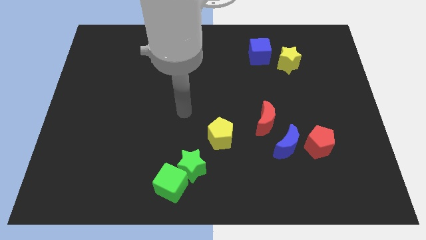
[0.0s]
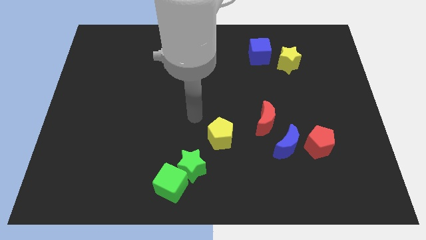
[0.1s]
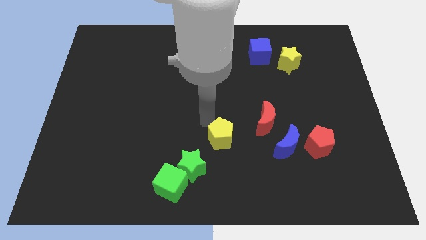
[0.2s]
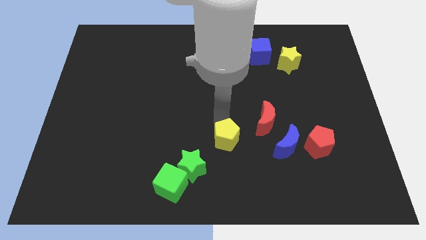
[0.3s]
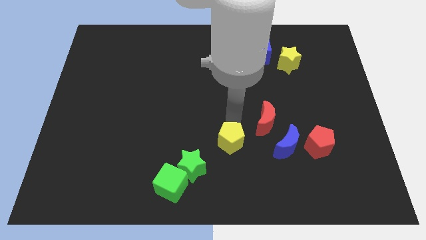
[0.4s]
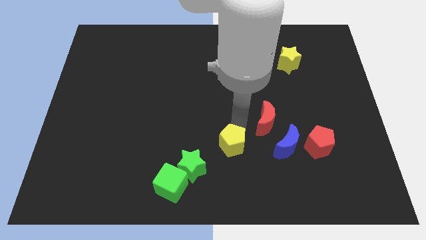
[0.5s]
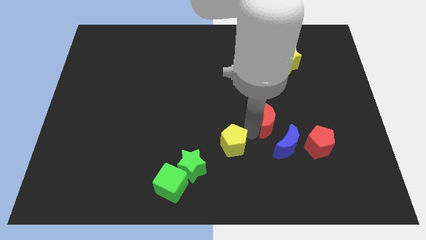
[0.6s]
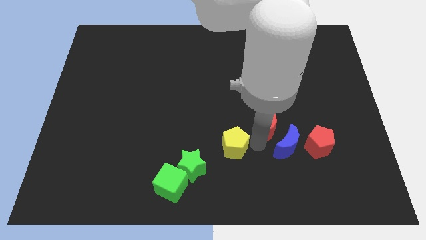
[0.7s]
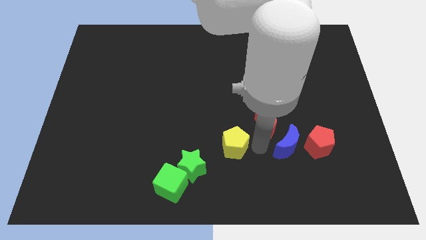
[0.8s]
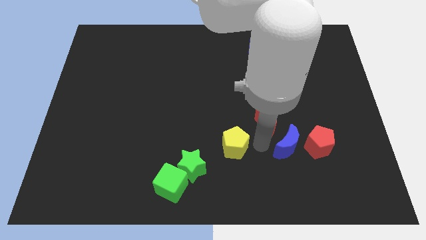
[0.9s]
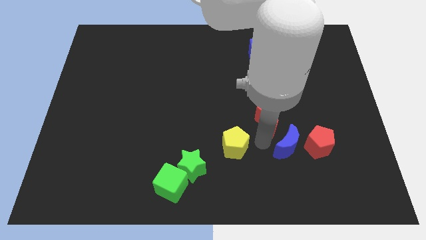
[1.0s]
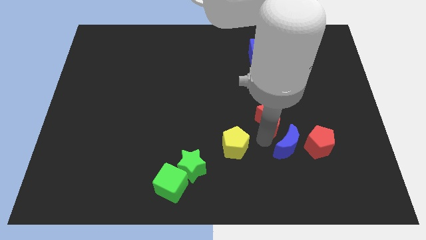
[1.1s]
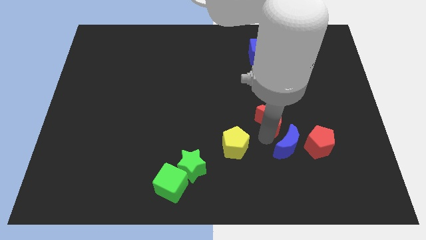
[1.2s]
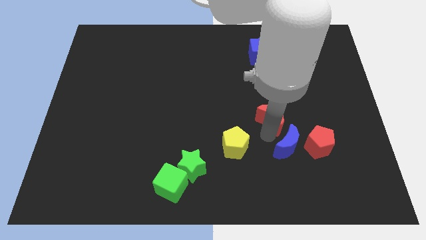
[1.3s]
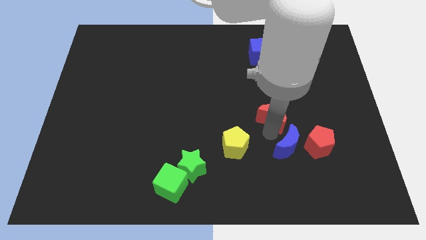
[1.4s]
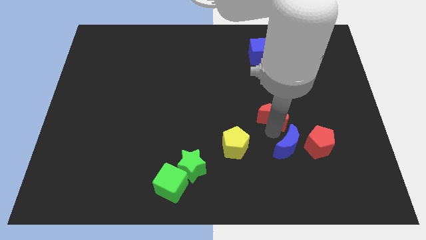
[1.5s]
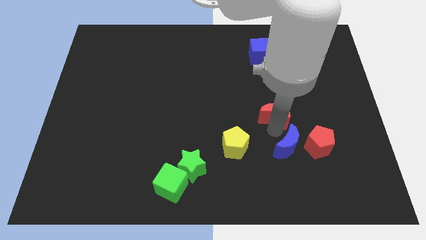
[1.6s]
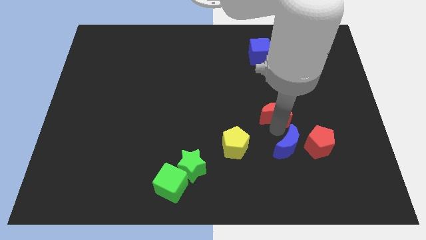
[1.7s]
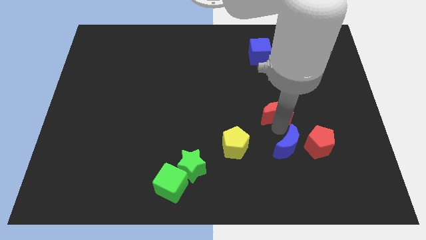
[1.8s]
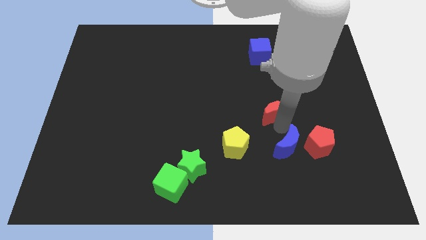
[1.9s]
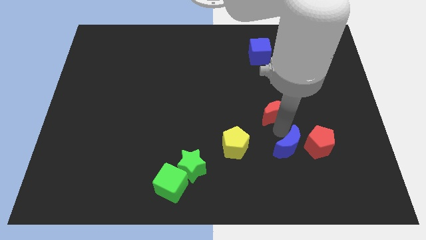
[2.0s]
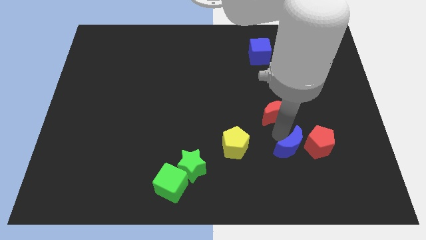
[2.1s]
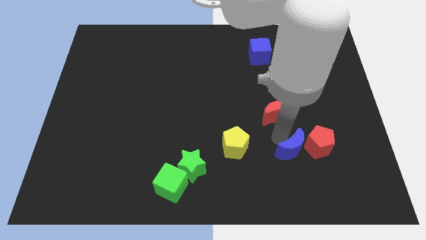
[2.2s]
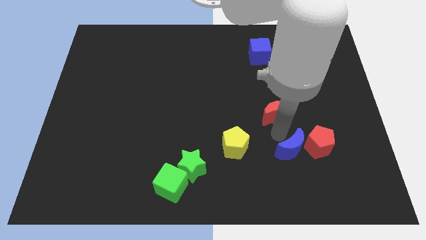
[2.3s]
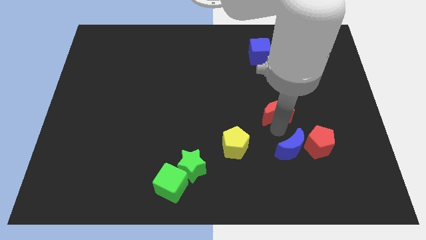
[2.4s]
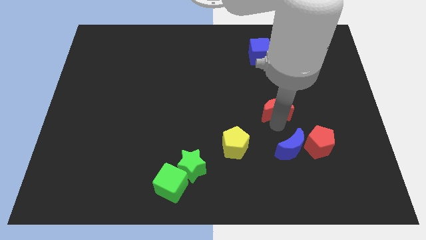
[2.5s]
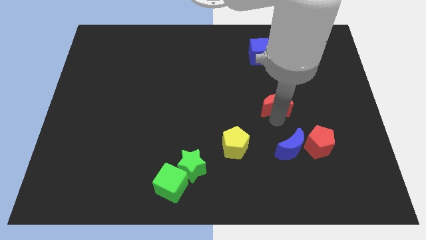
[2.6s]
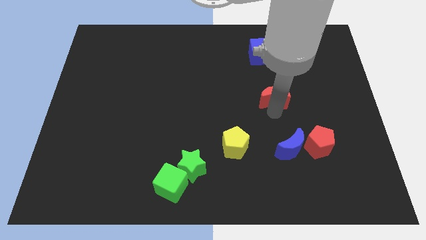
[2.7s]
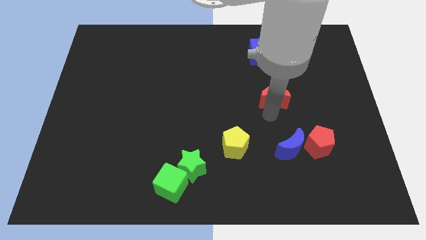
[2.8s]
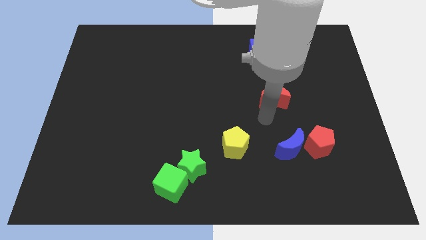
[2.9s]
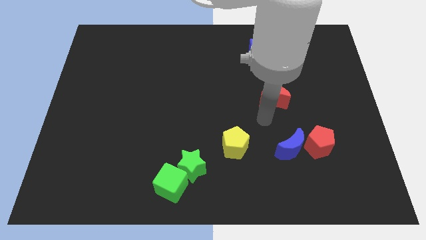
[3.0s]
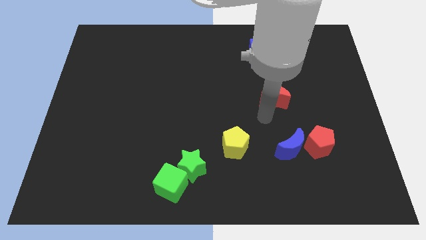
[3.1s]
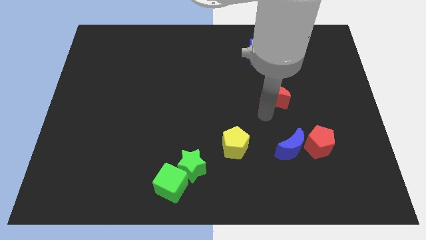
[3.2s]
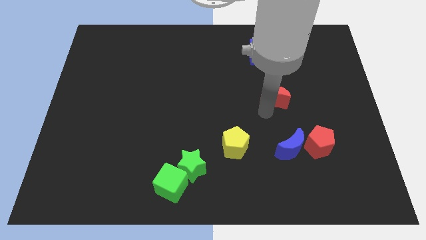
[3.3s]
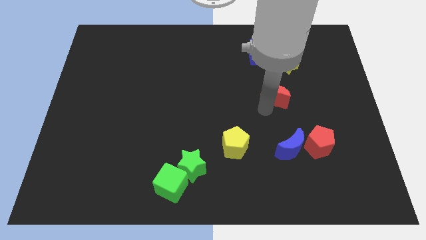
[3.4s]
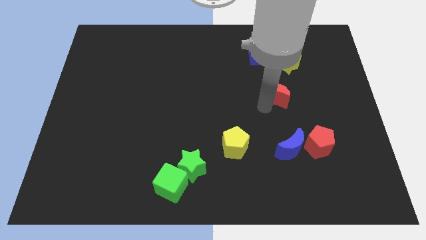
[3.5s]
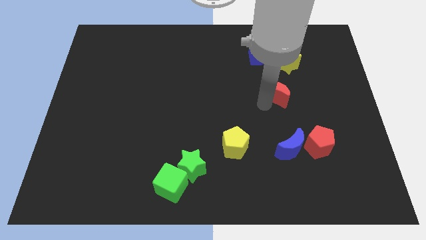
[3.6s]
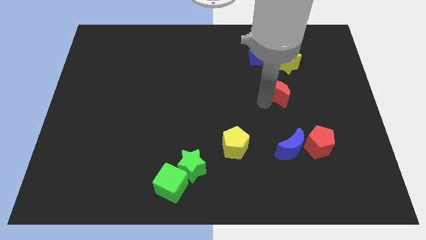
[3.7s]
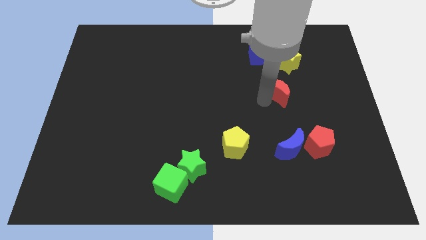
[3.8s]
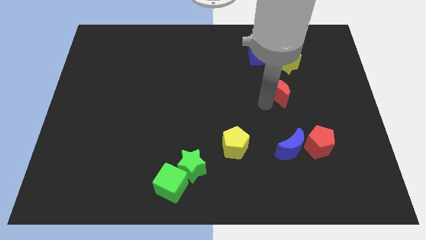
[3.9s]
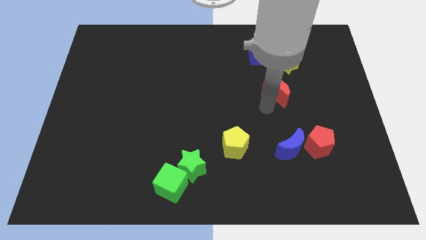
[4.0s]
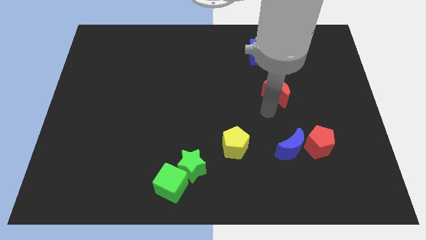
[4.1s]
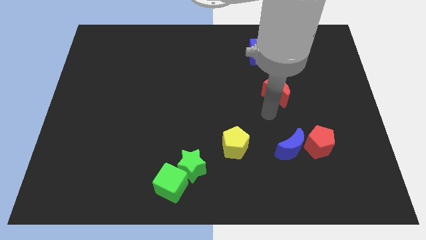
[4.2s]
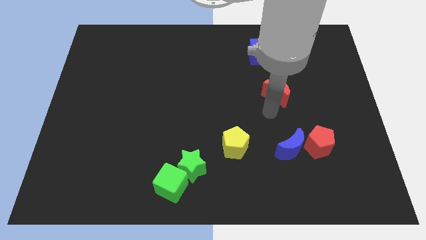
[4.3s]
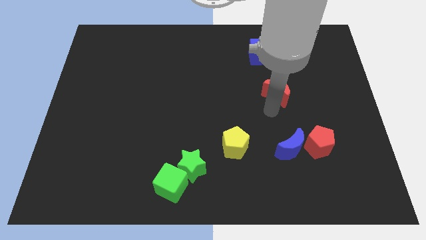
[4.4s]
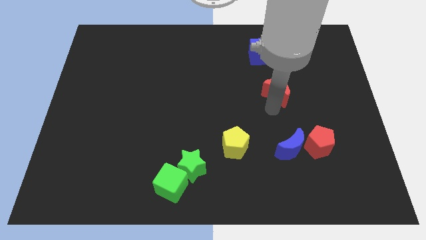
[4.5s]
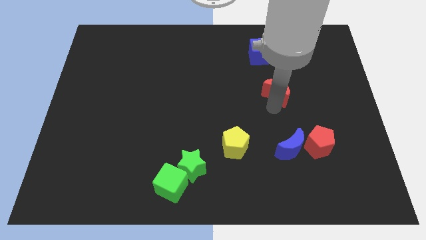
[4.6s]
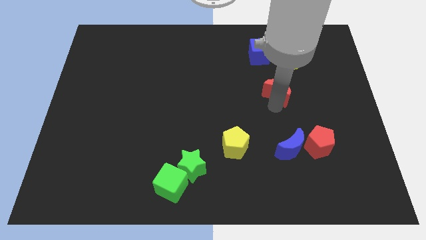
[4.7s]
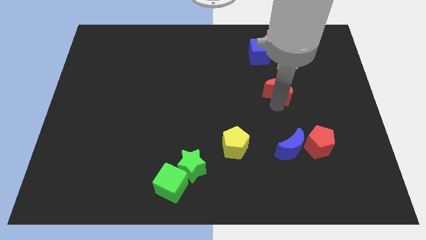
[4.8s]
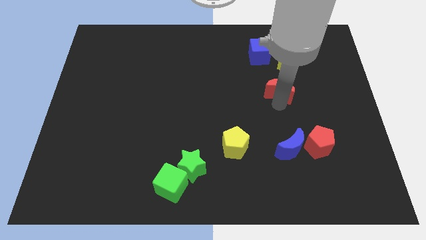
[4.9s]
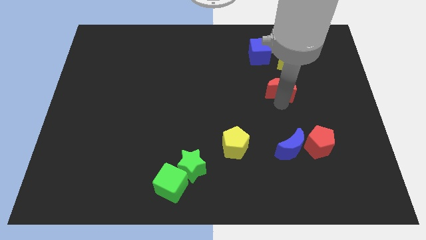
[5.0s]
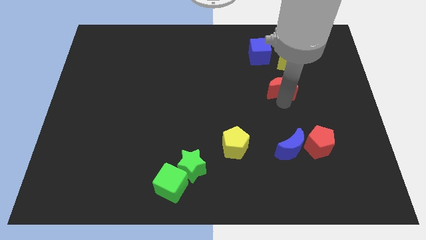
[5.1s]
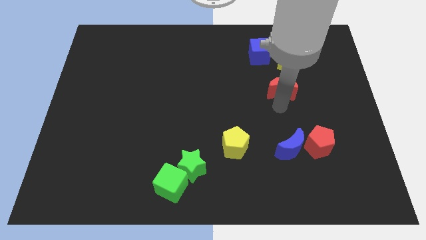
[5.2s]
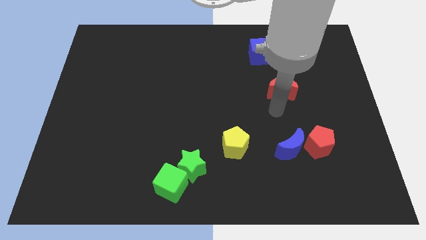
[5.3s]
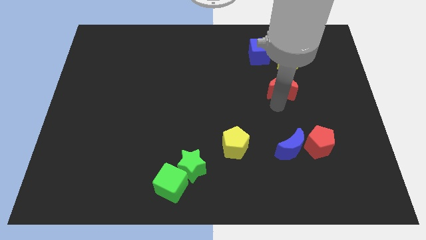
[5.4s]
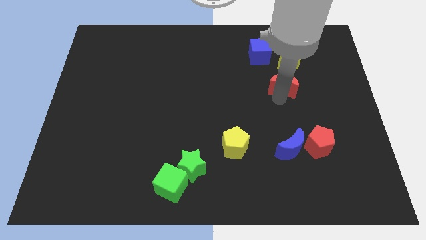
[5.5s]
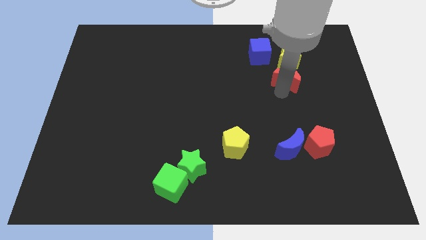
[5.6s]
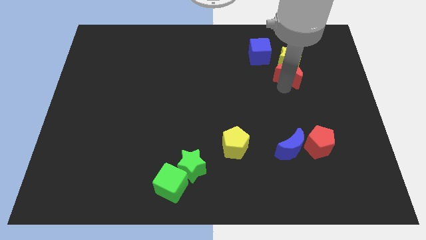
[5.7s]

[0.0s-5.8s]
put the red moon towards the yellow star

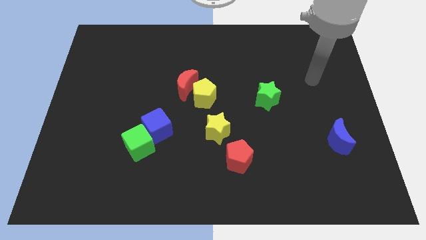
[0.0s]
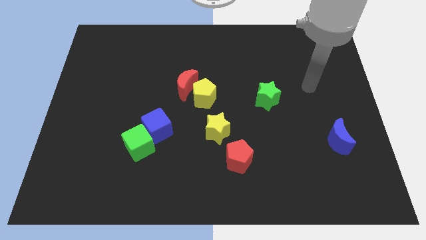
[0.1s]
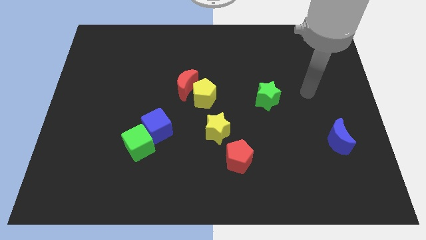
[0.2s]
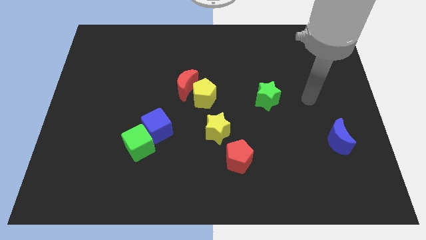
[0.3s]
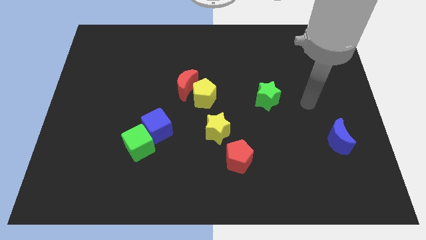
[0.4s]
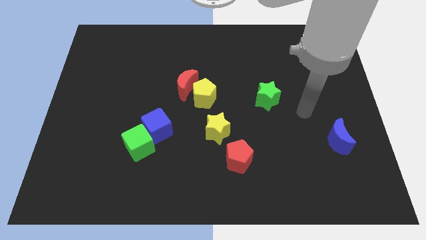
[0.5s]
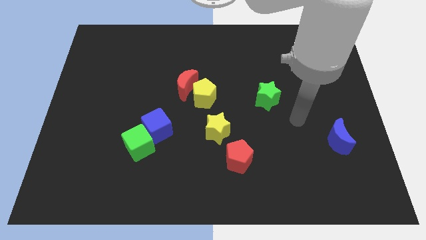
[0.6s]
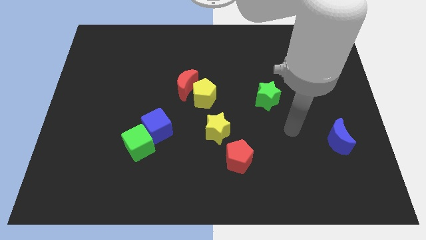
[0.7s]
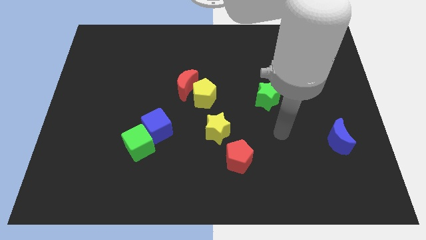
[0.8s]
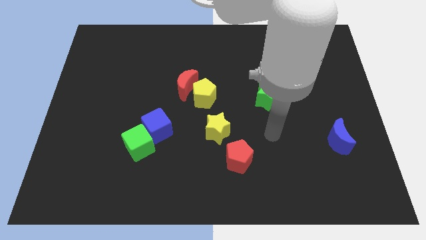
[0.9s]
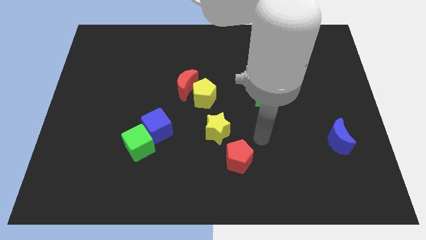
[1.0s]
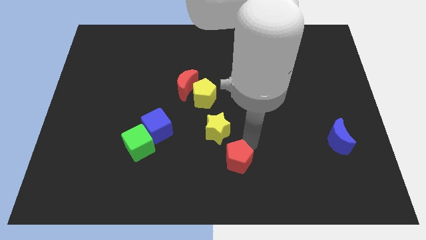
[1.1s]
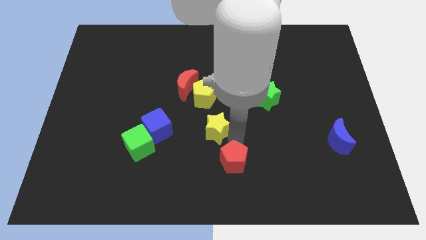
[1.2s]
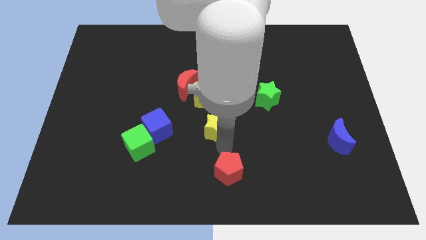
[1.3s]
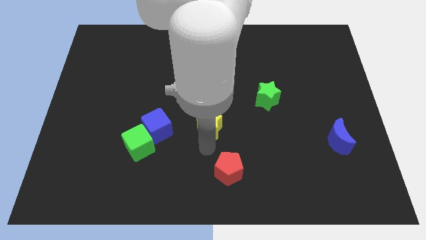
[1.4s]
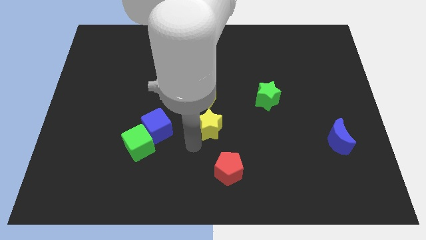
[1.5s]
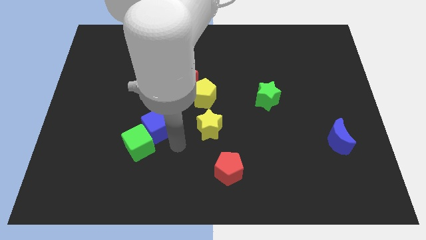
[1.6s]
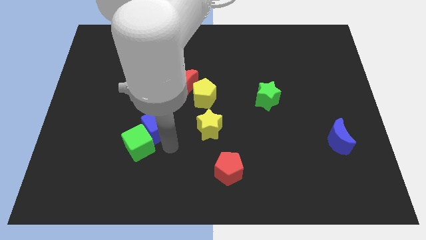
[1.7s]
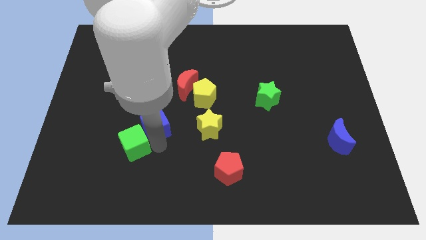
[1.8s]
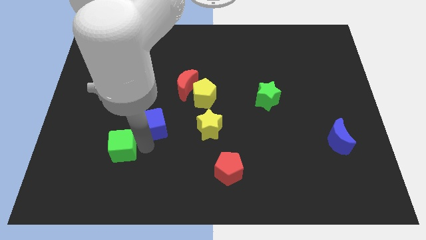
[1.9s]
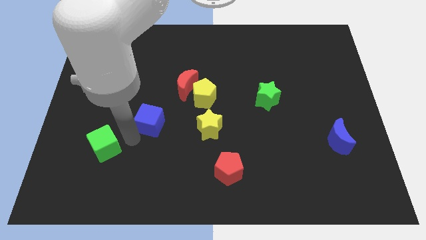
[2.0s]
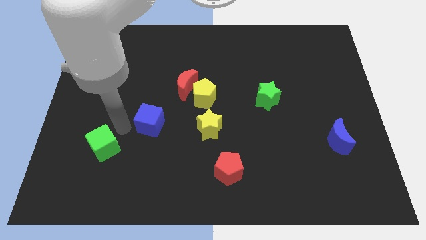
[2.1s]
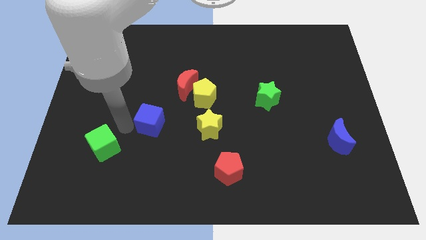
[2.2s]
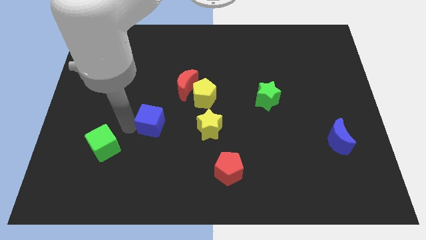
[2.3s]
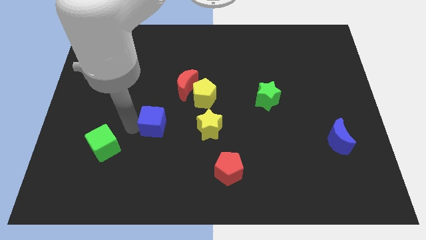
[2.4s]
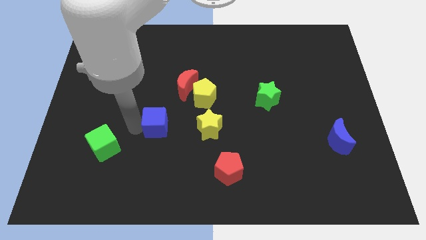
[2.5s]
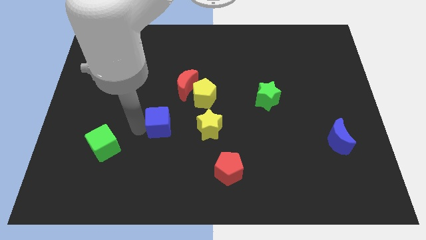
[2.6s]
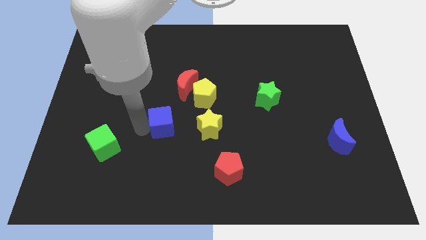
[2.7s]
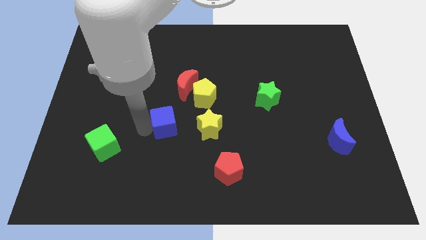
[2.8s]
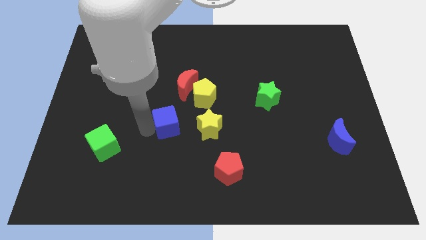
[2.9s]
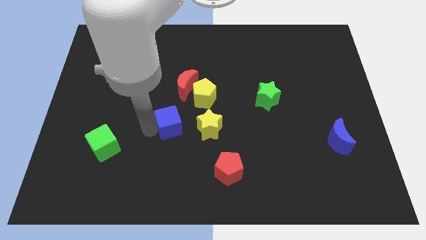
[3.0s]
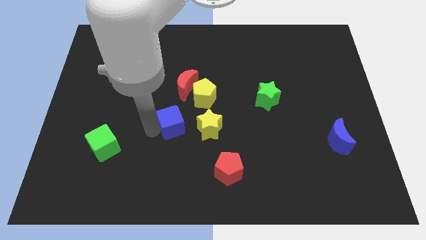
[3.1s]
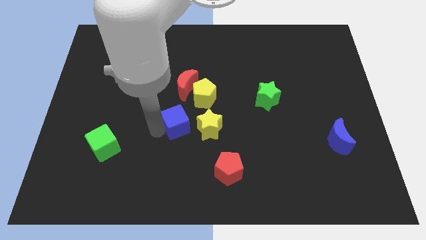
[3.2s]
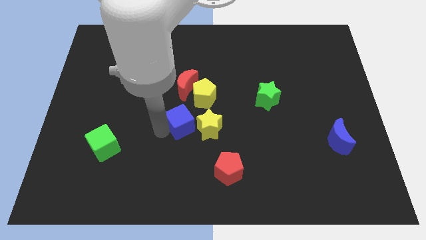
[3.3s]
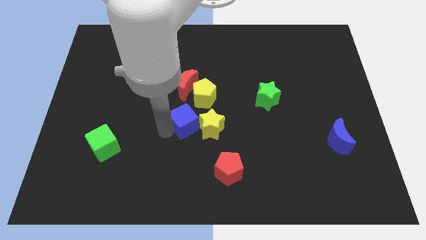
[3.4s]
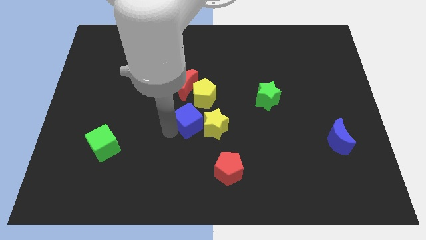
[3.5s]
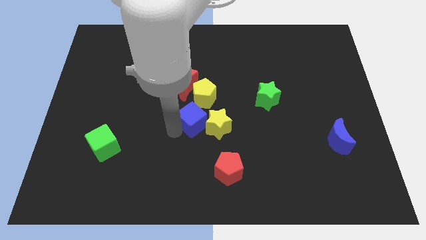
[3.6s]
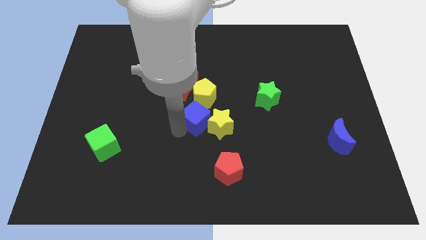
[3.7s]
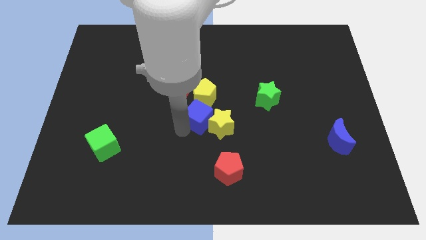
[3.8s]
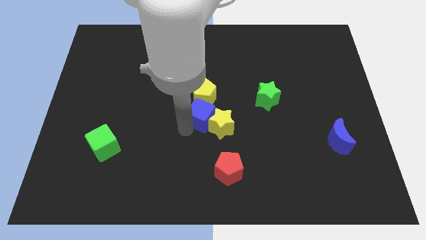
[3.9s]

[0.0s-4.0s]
push the blue cube towards the yellow pentagon
